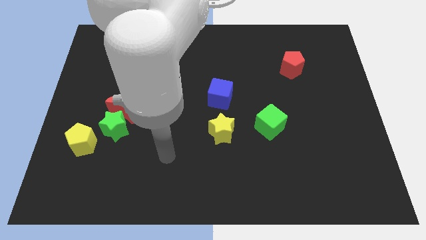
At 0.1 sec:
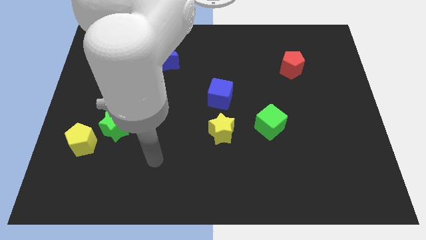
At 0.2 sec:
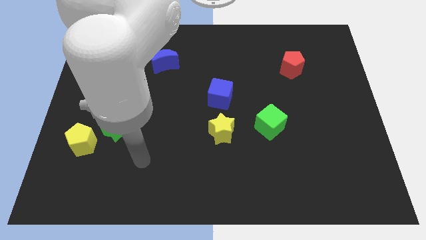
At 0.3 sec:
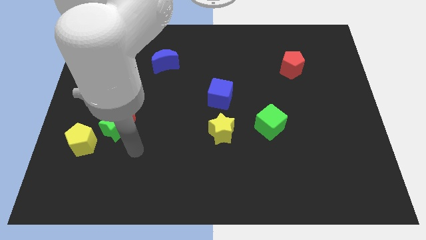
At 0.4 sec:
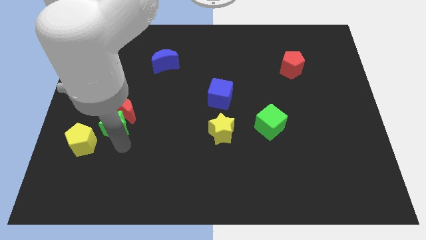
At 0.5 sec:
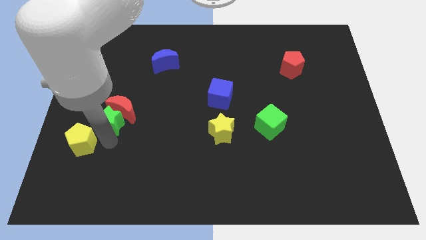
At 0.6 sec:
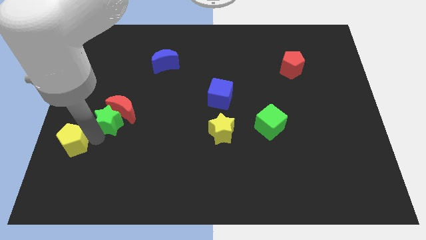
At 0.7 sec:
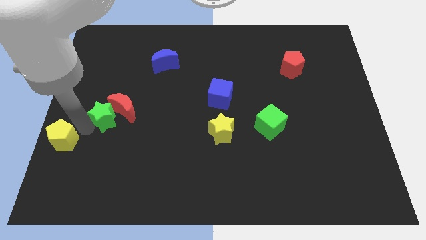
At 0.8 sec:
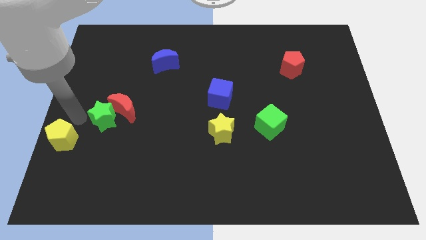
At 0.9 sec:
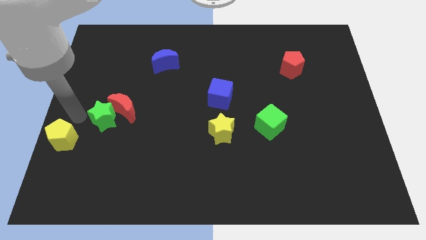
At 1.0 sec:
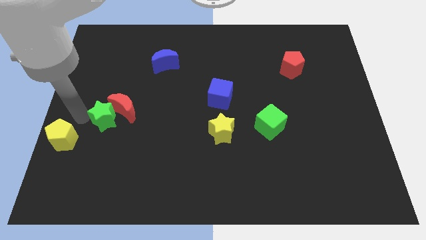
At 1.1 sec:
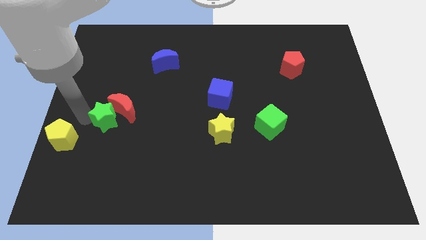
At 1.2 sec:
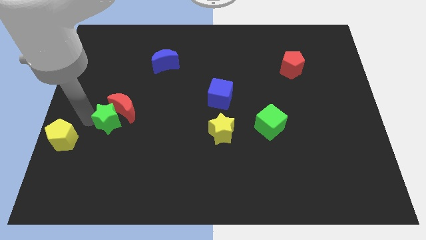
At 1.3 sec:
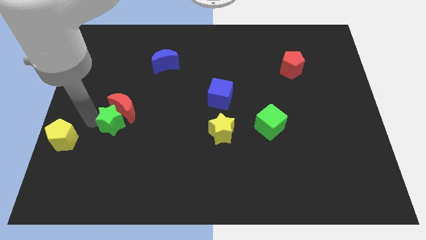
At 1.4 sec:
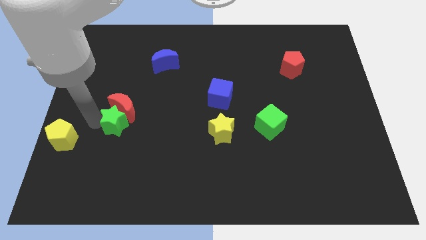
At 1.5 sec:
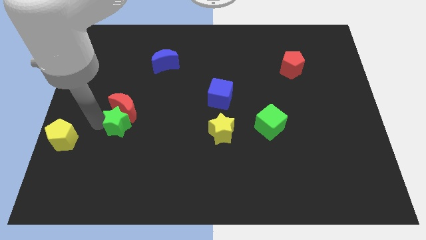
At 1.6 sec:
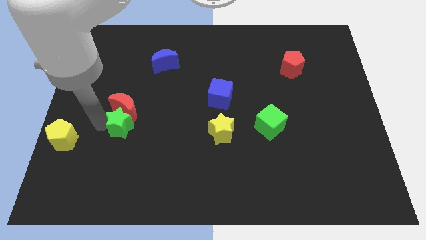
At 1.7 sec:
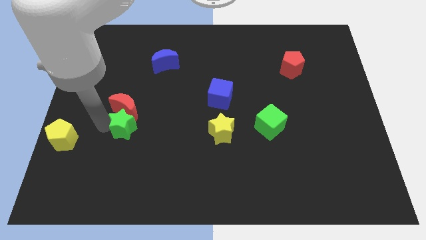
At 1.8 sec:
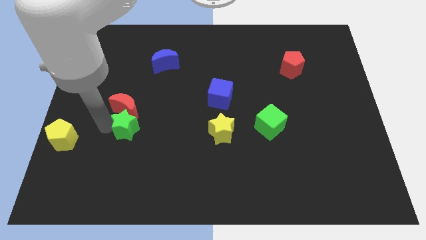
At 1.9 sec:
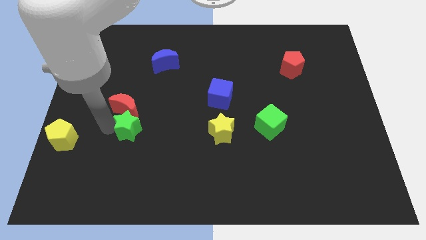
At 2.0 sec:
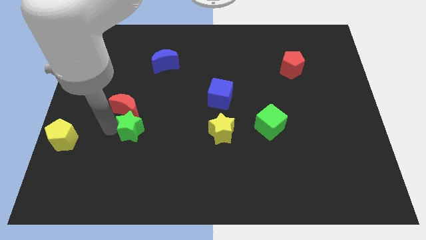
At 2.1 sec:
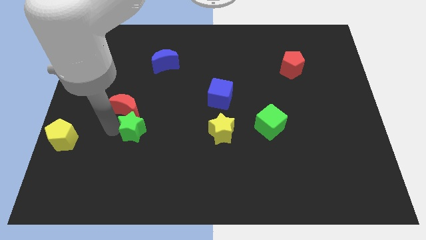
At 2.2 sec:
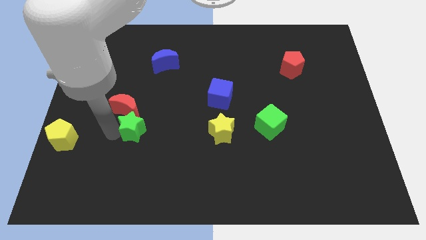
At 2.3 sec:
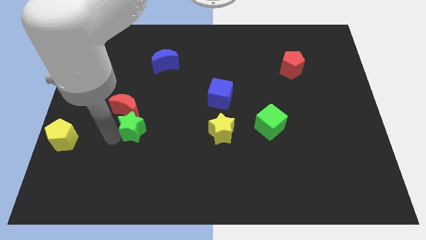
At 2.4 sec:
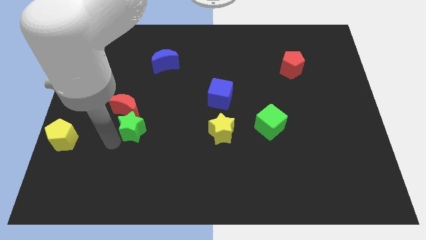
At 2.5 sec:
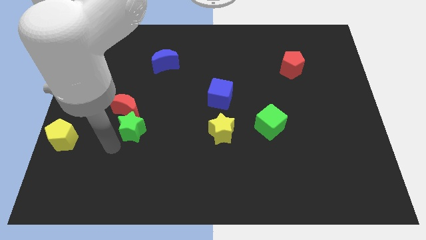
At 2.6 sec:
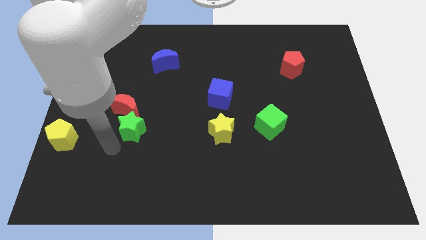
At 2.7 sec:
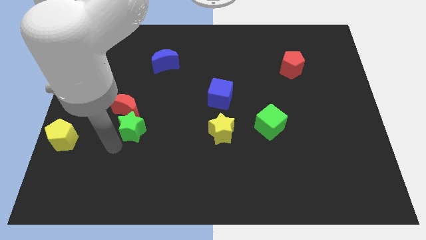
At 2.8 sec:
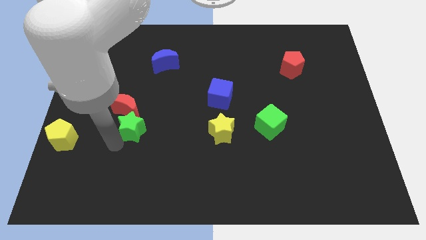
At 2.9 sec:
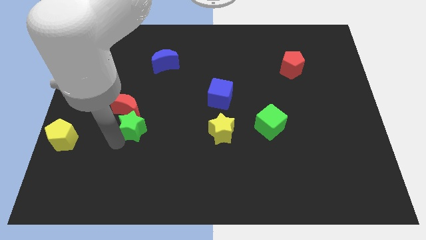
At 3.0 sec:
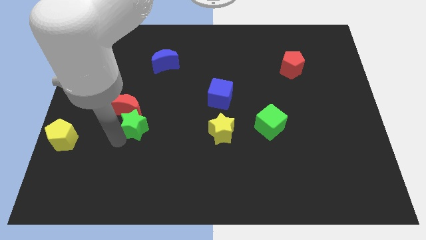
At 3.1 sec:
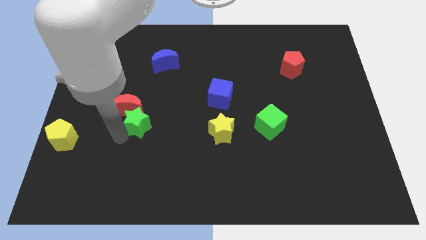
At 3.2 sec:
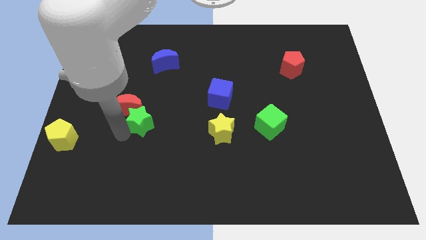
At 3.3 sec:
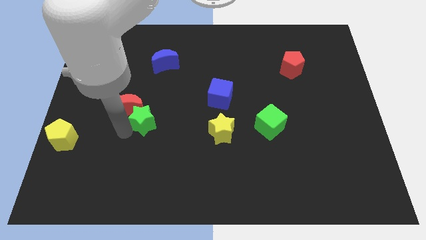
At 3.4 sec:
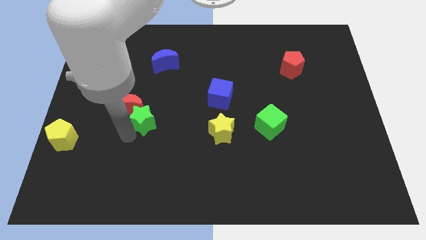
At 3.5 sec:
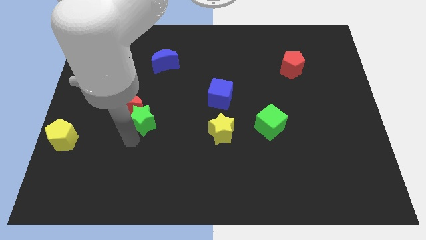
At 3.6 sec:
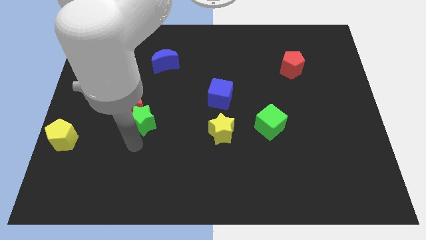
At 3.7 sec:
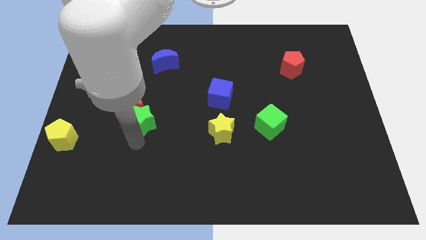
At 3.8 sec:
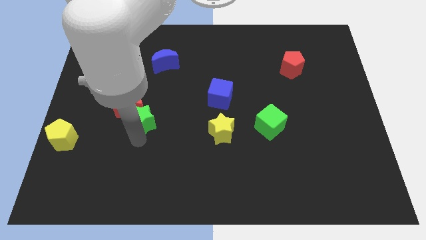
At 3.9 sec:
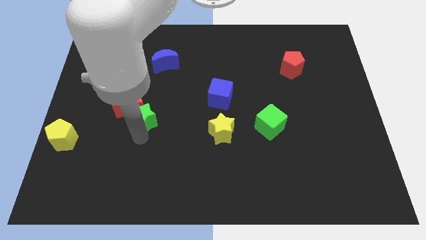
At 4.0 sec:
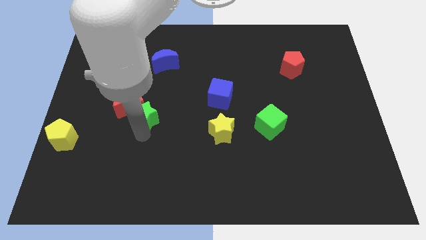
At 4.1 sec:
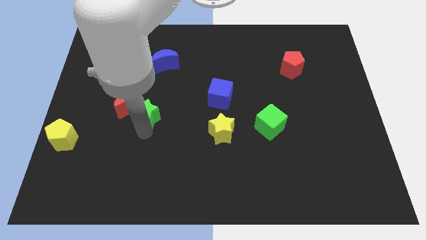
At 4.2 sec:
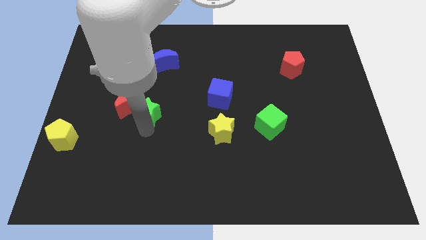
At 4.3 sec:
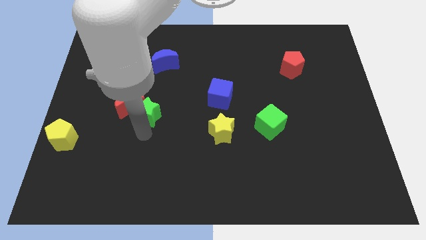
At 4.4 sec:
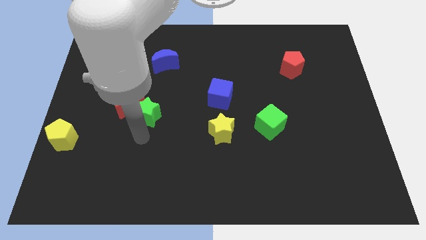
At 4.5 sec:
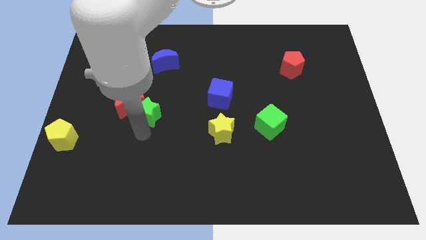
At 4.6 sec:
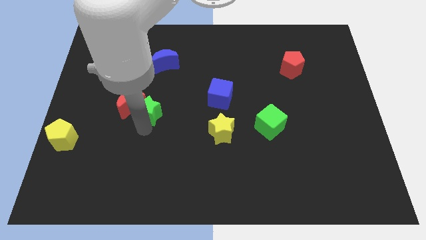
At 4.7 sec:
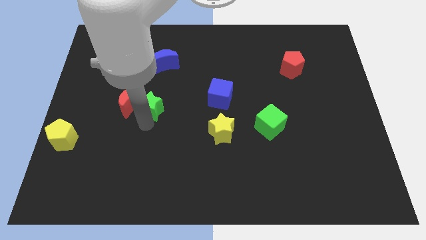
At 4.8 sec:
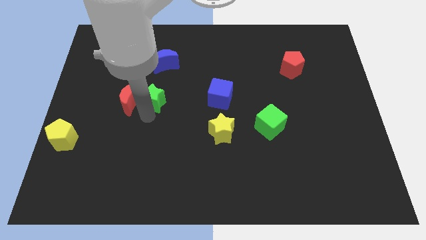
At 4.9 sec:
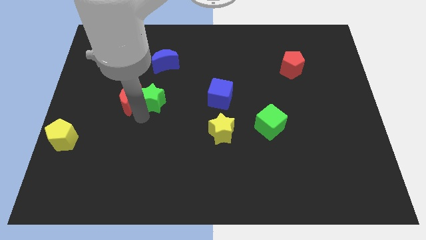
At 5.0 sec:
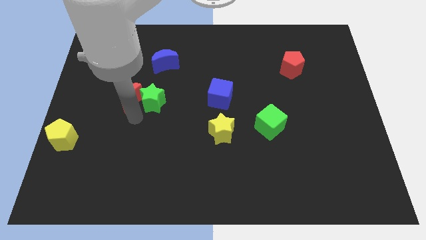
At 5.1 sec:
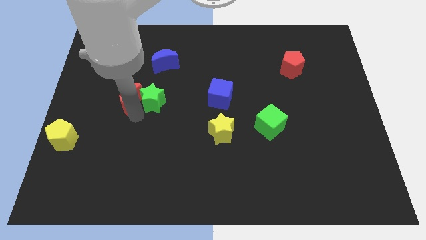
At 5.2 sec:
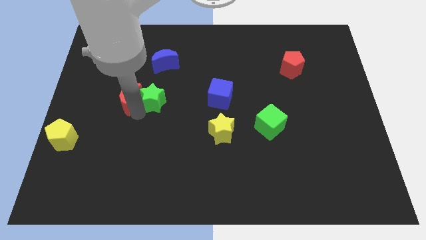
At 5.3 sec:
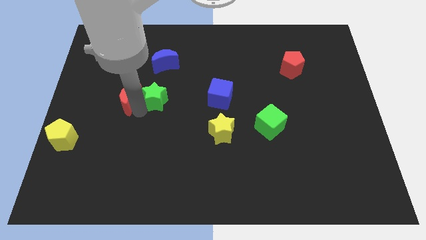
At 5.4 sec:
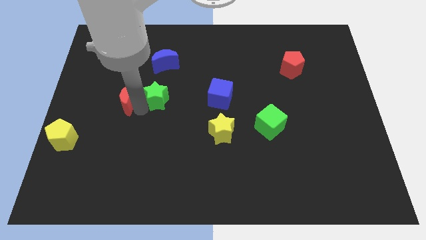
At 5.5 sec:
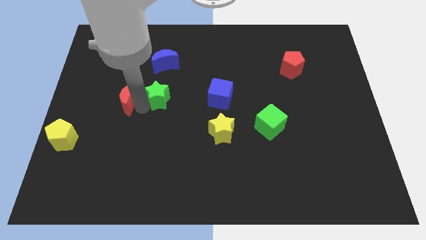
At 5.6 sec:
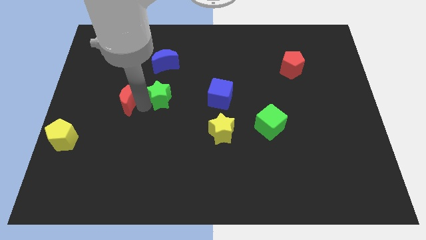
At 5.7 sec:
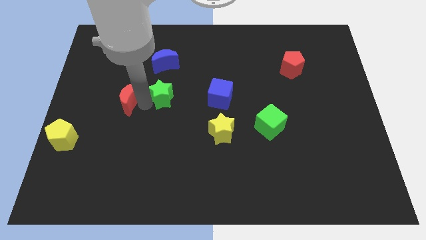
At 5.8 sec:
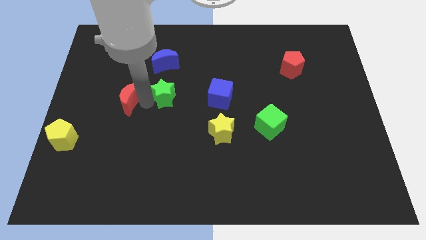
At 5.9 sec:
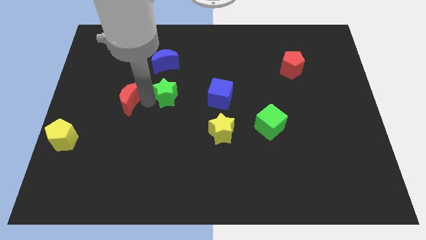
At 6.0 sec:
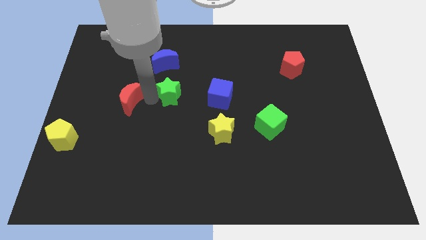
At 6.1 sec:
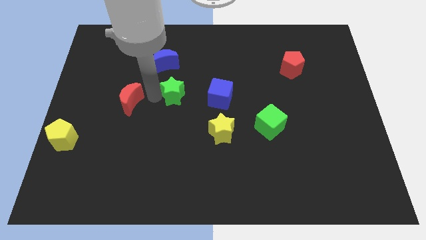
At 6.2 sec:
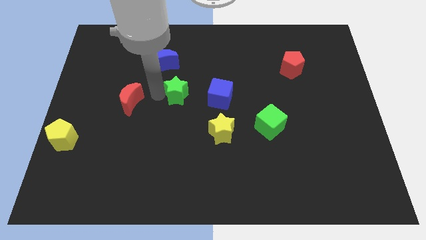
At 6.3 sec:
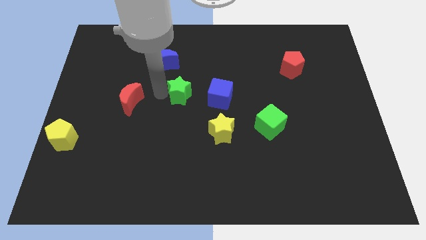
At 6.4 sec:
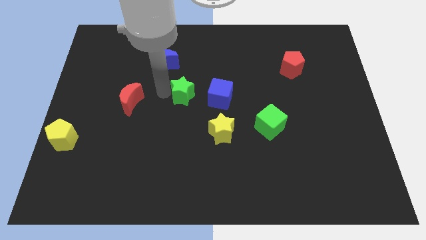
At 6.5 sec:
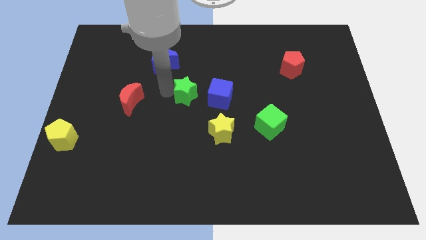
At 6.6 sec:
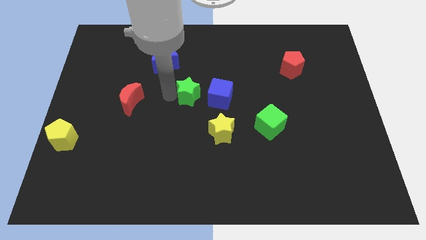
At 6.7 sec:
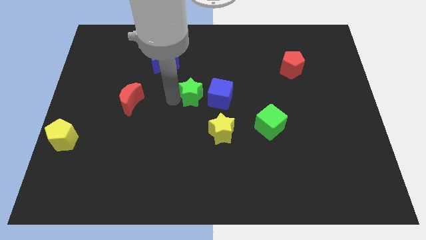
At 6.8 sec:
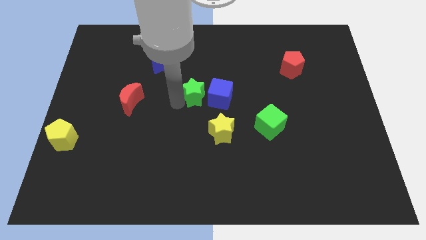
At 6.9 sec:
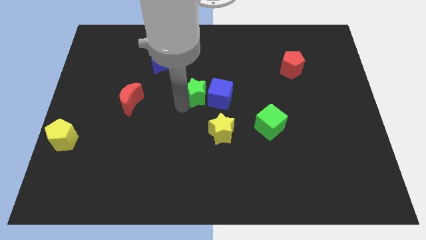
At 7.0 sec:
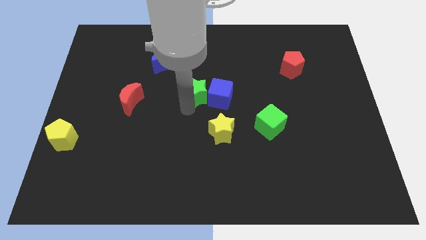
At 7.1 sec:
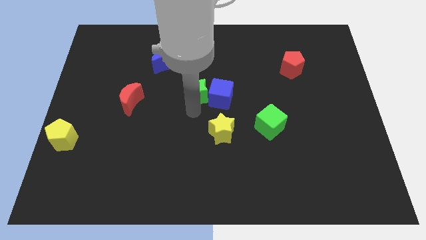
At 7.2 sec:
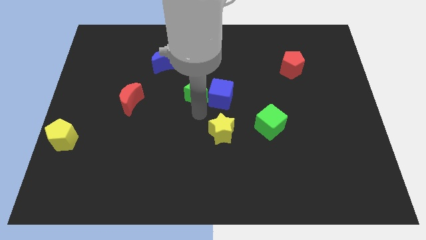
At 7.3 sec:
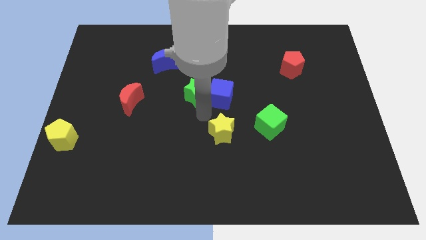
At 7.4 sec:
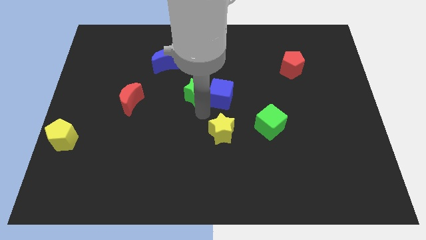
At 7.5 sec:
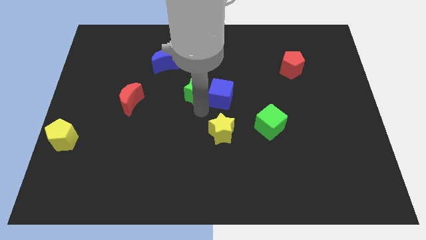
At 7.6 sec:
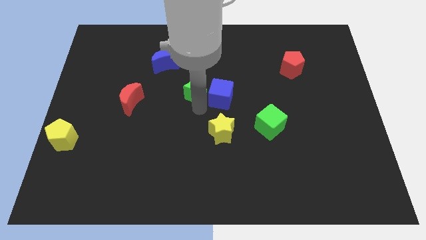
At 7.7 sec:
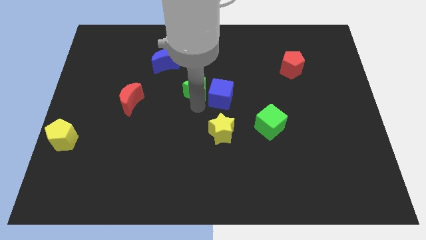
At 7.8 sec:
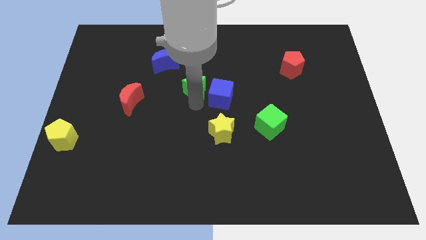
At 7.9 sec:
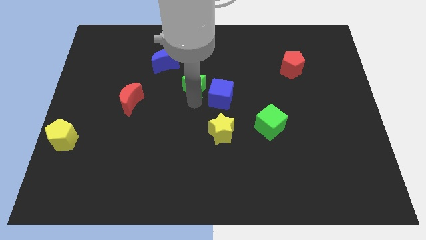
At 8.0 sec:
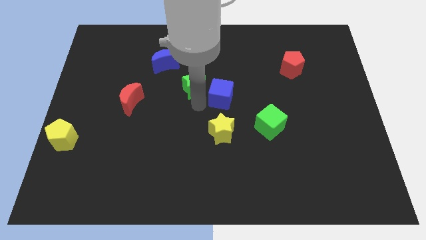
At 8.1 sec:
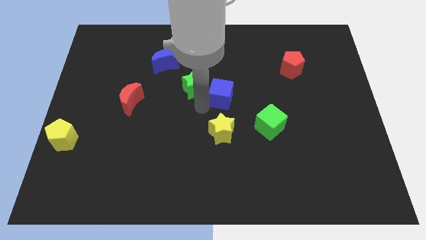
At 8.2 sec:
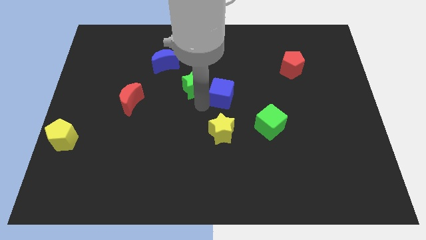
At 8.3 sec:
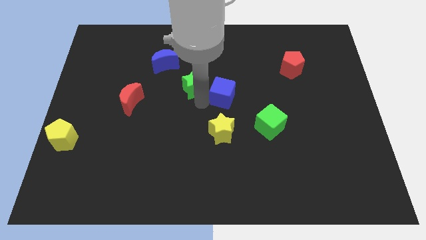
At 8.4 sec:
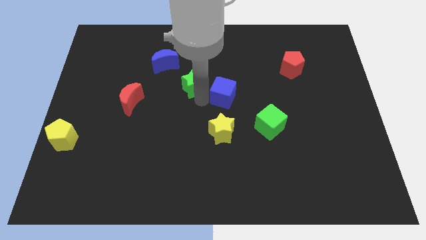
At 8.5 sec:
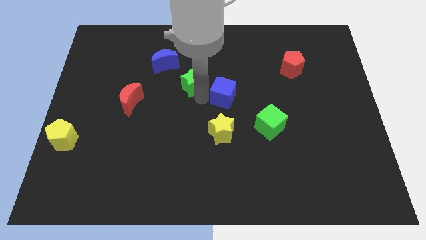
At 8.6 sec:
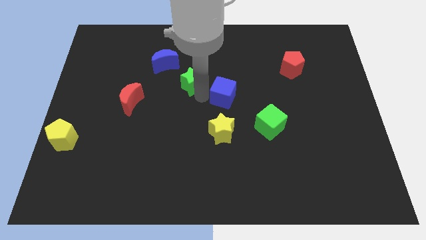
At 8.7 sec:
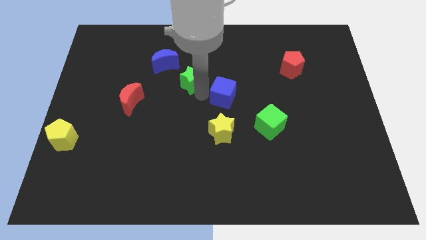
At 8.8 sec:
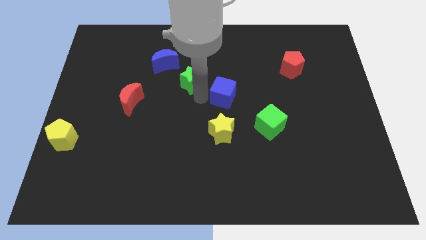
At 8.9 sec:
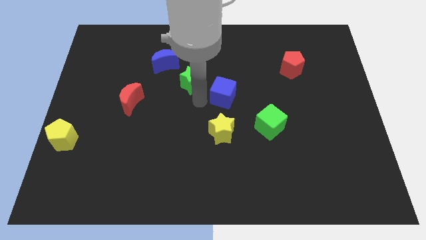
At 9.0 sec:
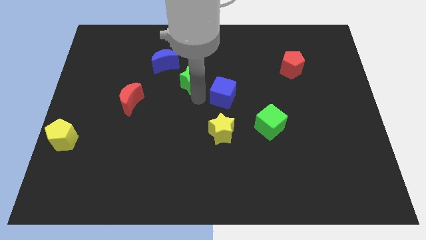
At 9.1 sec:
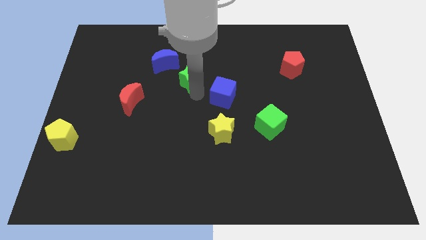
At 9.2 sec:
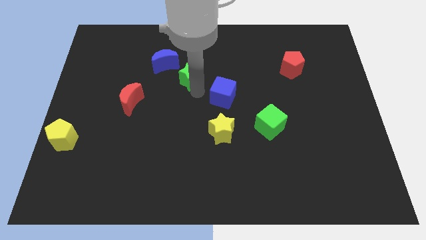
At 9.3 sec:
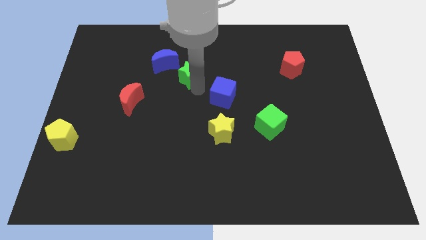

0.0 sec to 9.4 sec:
push the green star to the right side of the blue moon
